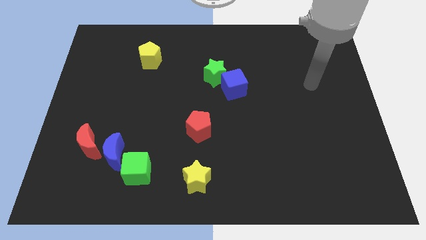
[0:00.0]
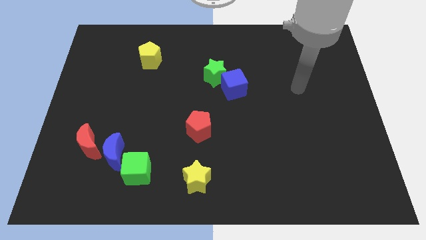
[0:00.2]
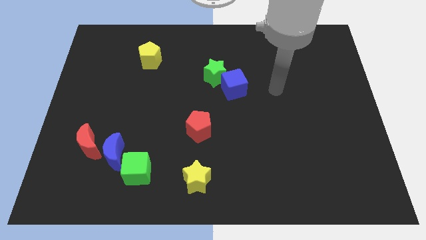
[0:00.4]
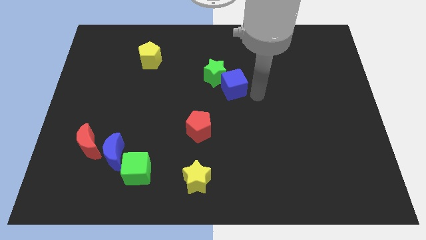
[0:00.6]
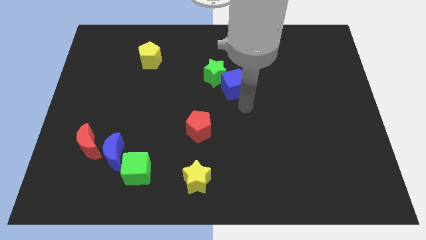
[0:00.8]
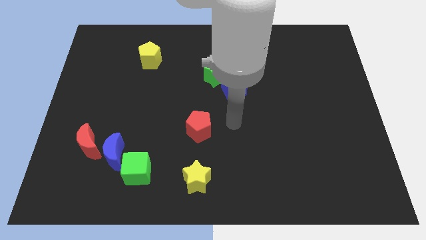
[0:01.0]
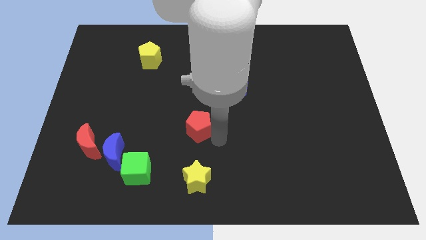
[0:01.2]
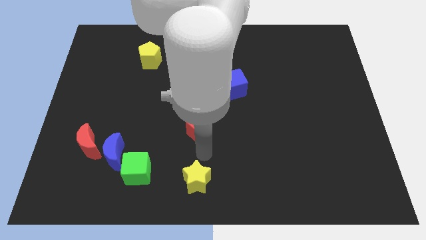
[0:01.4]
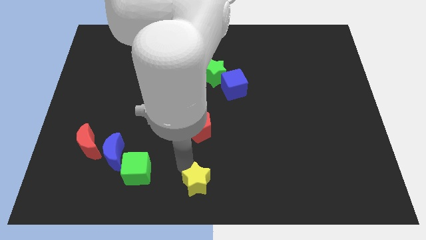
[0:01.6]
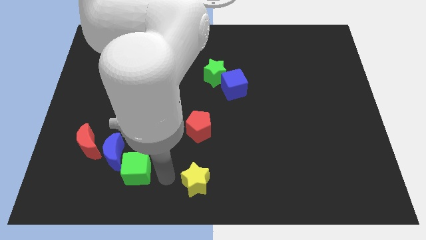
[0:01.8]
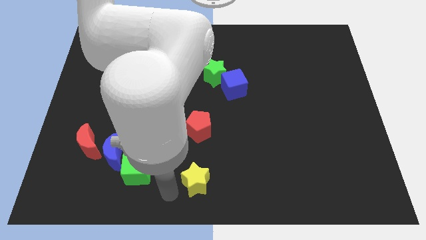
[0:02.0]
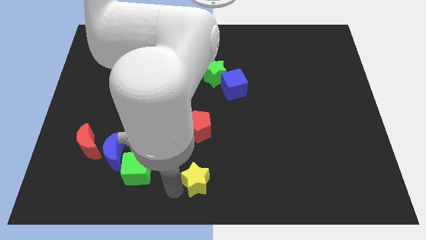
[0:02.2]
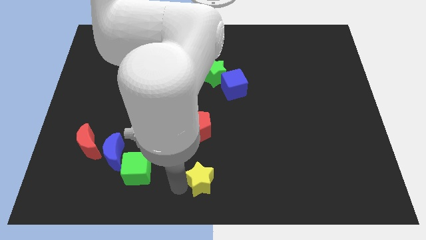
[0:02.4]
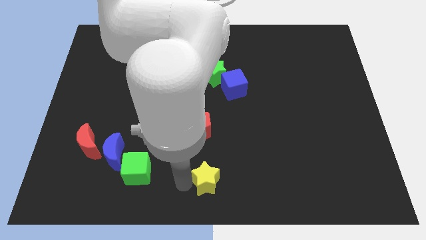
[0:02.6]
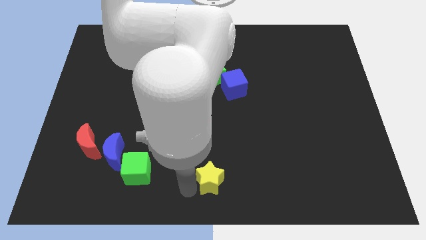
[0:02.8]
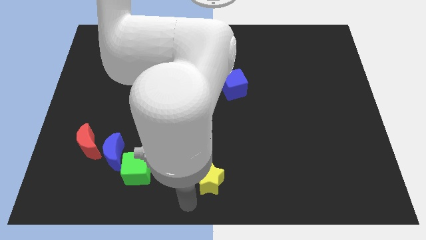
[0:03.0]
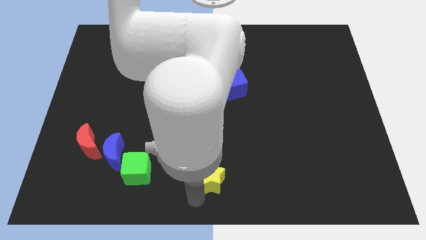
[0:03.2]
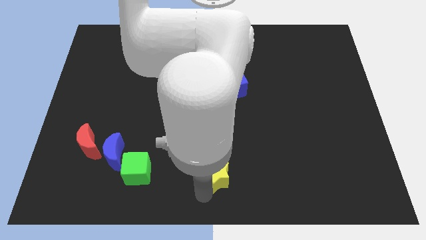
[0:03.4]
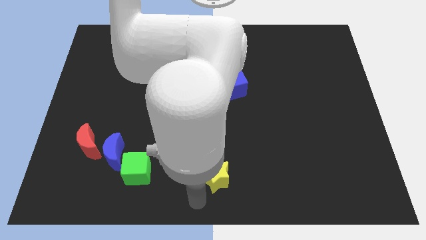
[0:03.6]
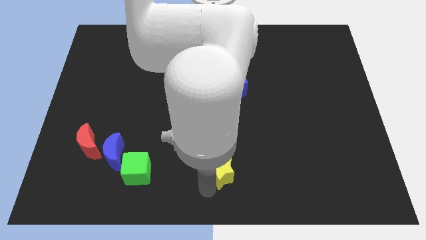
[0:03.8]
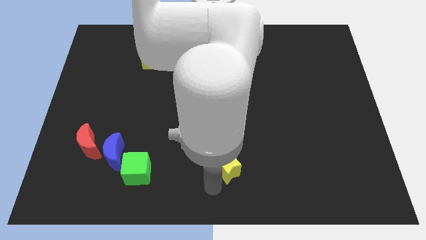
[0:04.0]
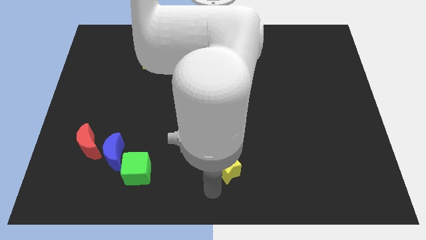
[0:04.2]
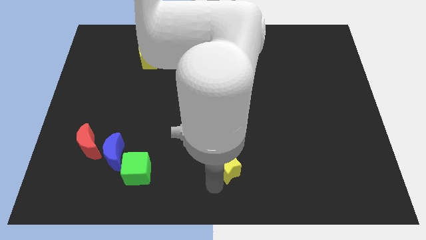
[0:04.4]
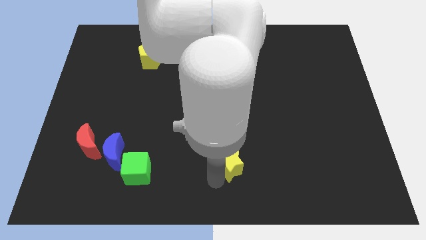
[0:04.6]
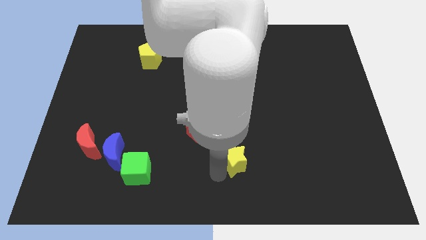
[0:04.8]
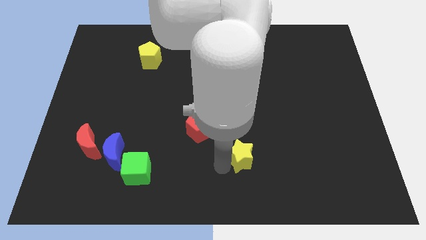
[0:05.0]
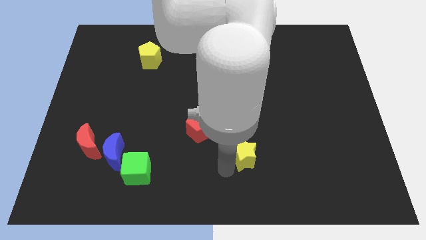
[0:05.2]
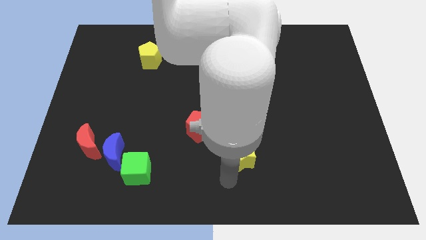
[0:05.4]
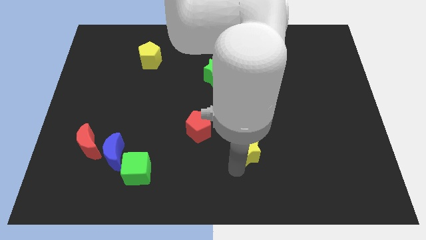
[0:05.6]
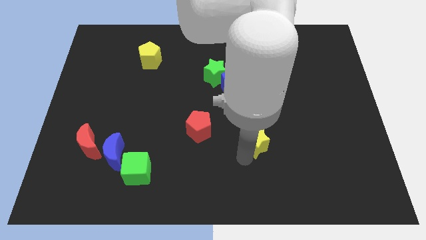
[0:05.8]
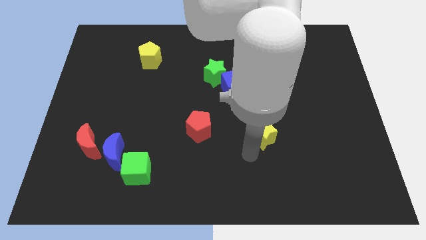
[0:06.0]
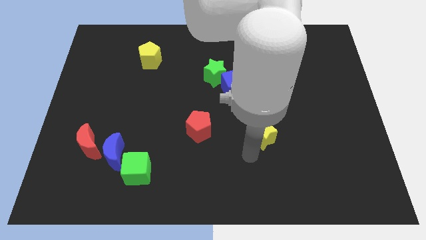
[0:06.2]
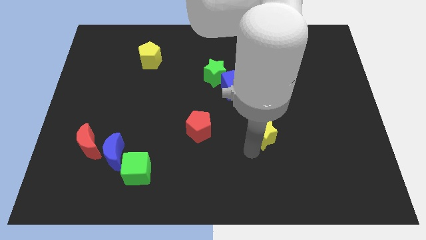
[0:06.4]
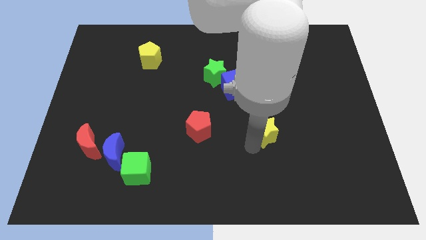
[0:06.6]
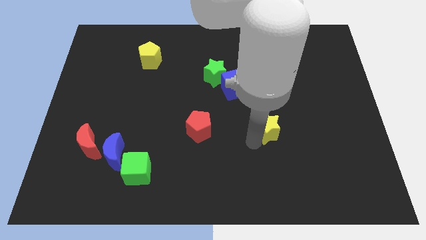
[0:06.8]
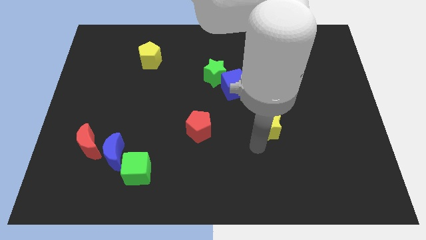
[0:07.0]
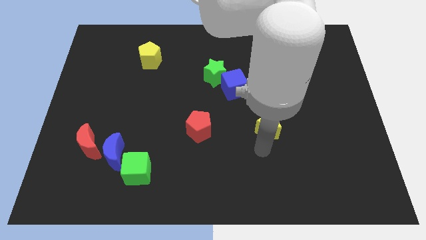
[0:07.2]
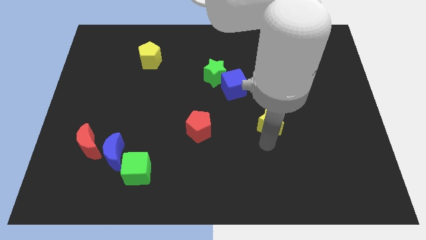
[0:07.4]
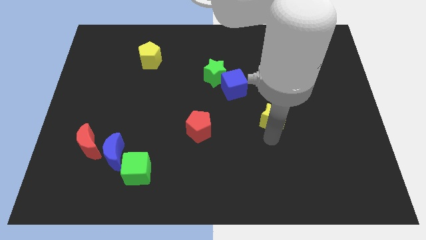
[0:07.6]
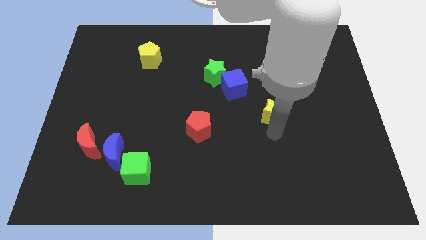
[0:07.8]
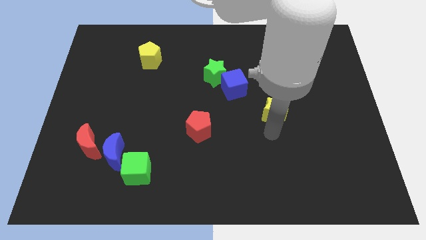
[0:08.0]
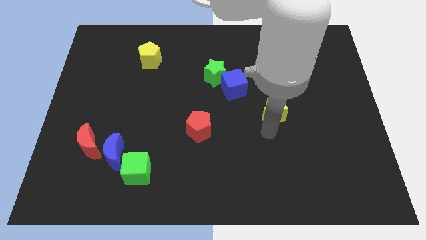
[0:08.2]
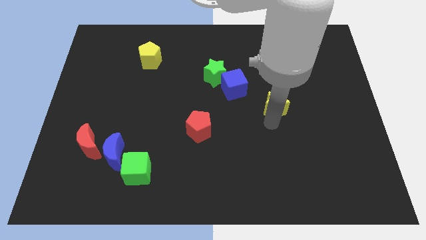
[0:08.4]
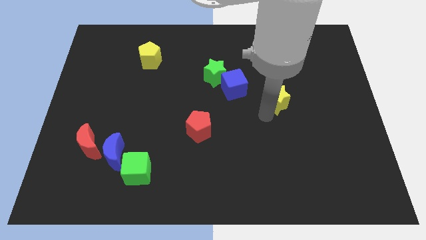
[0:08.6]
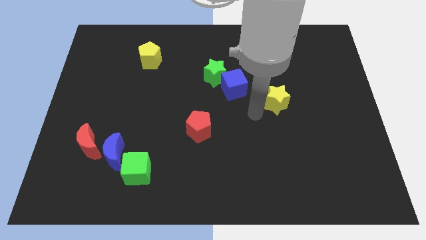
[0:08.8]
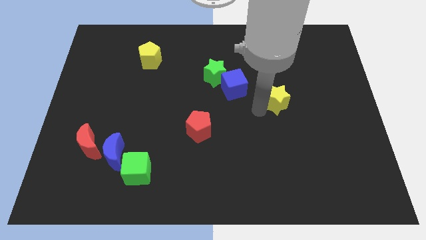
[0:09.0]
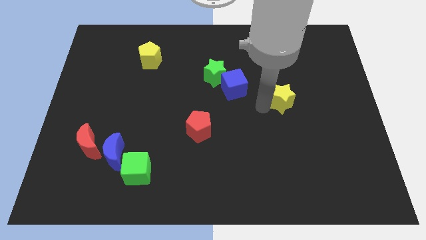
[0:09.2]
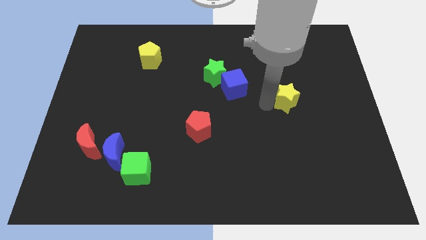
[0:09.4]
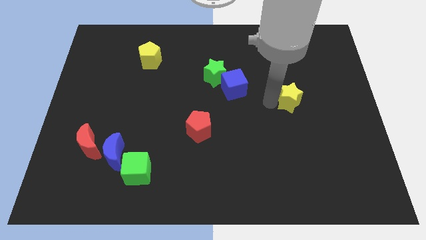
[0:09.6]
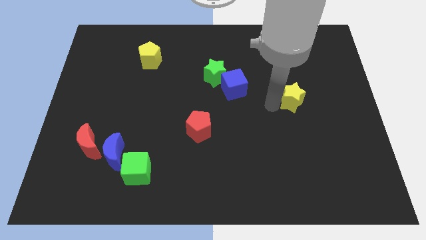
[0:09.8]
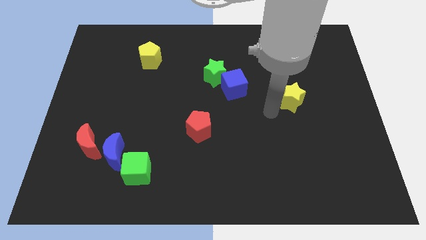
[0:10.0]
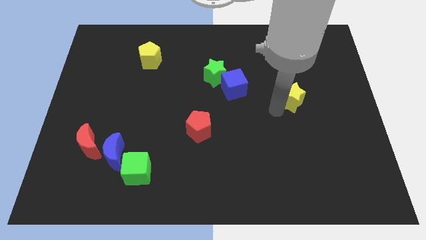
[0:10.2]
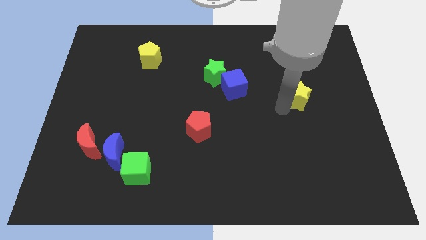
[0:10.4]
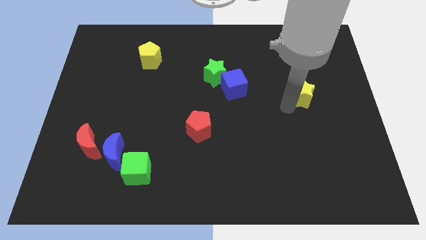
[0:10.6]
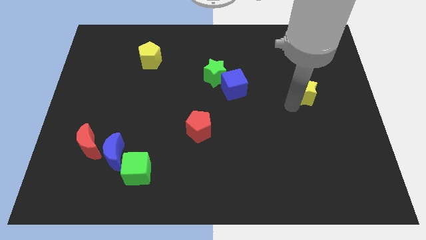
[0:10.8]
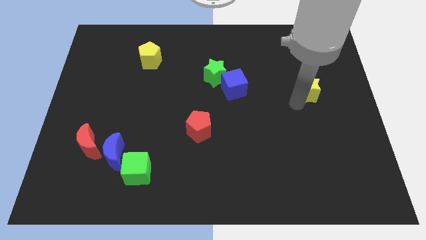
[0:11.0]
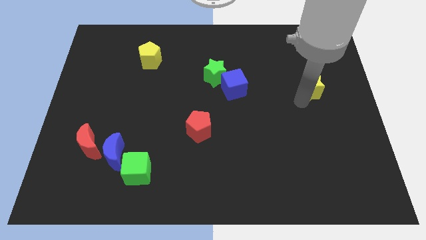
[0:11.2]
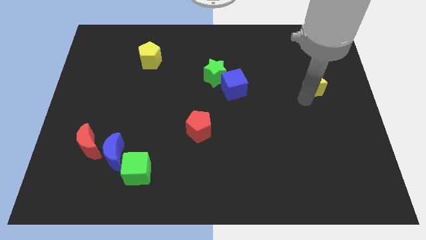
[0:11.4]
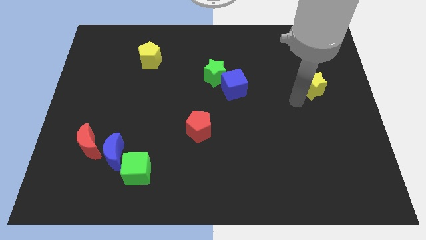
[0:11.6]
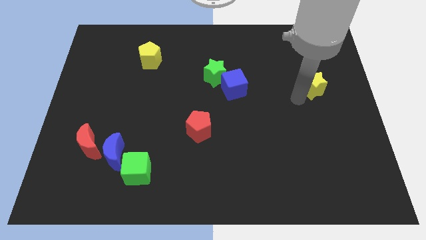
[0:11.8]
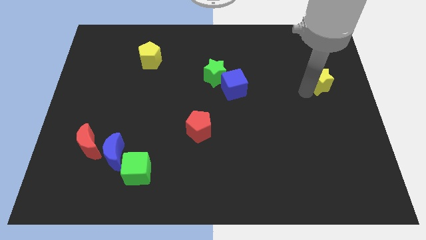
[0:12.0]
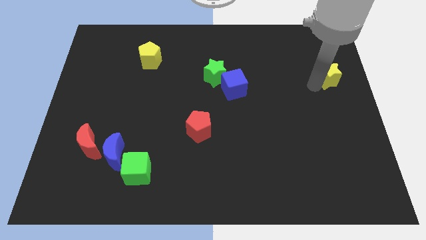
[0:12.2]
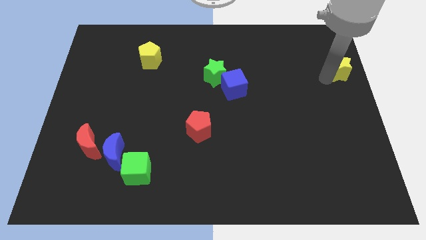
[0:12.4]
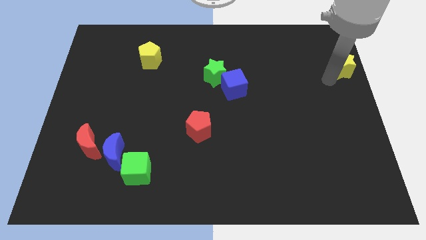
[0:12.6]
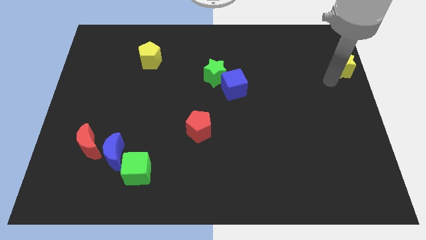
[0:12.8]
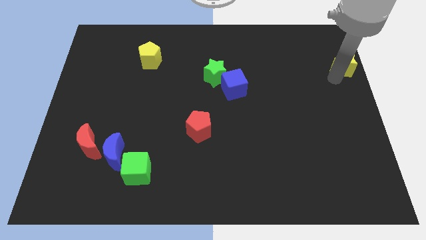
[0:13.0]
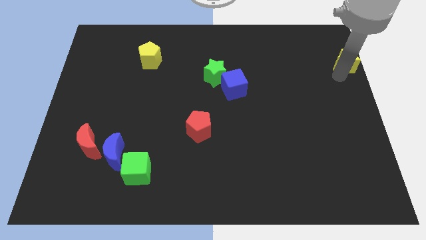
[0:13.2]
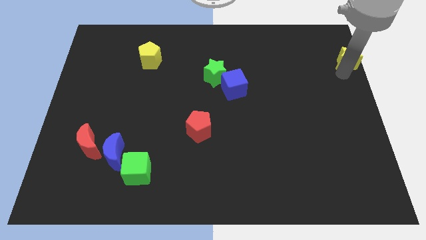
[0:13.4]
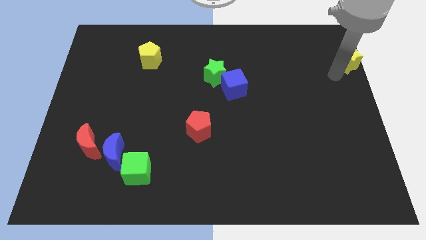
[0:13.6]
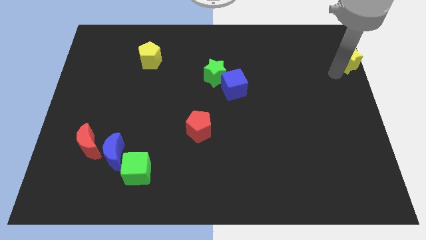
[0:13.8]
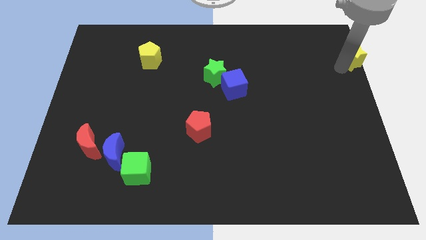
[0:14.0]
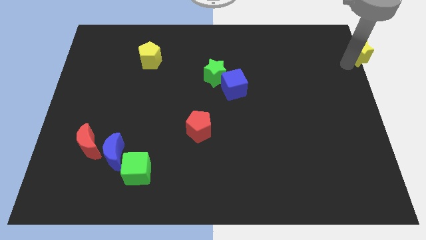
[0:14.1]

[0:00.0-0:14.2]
put the yellow star to the top right corner
